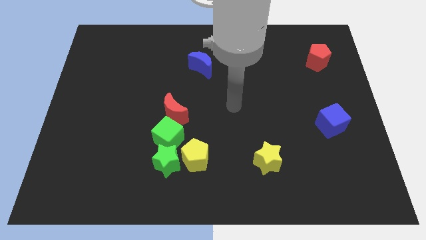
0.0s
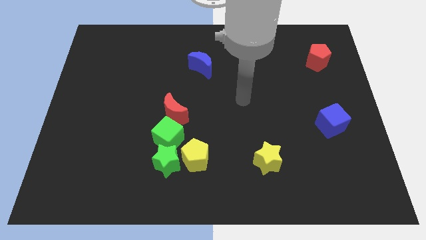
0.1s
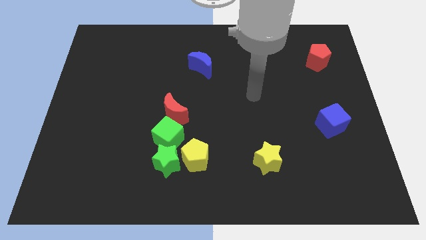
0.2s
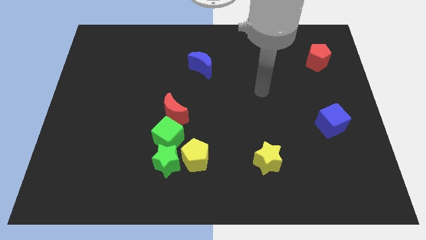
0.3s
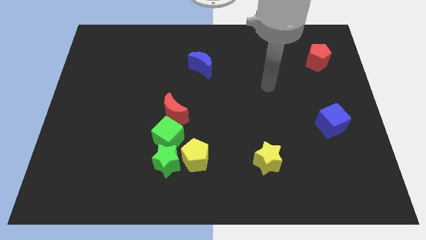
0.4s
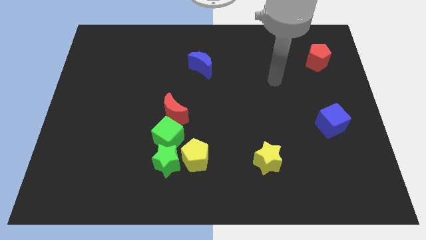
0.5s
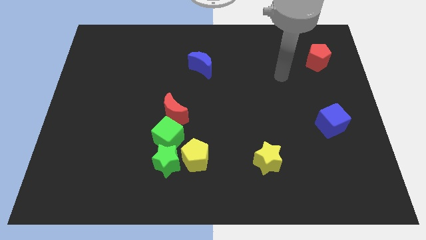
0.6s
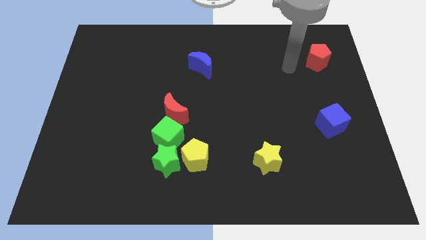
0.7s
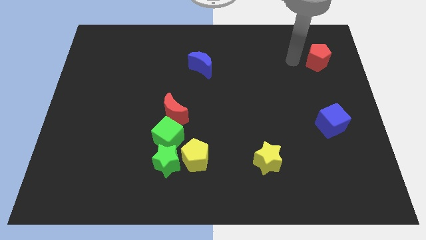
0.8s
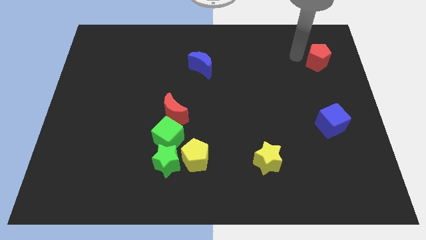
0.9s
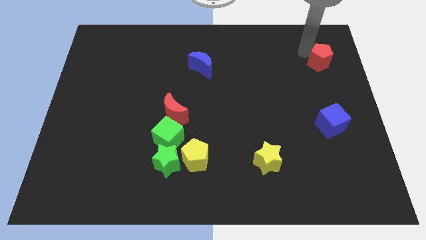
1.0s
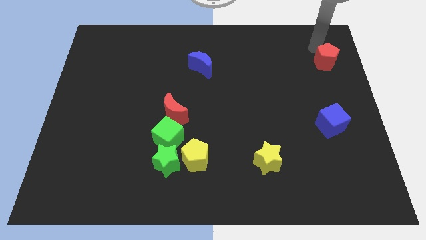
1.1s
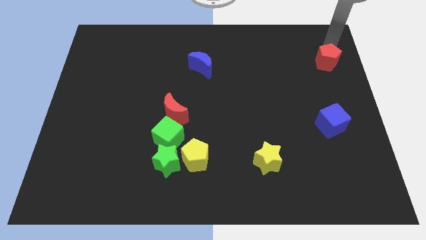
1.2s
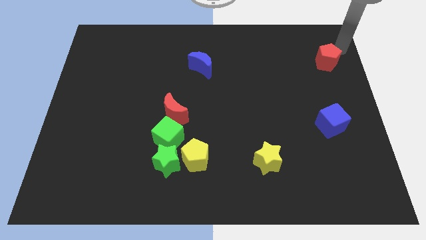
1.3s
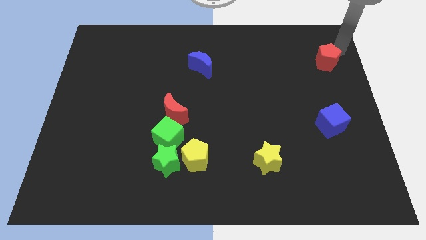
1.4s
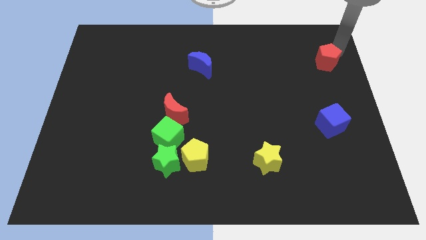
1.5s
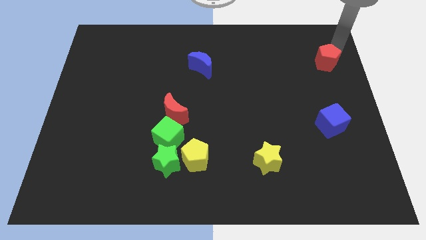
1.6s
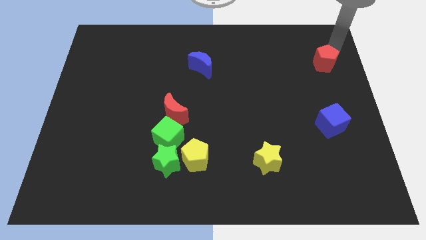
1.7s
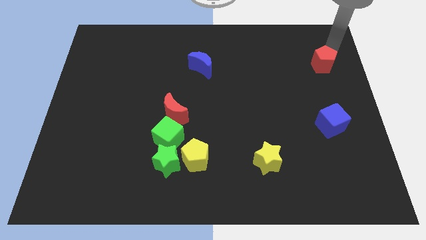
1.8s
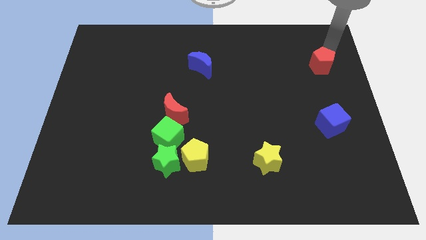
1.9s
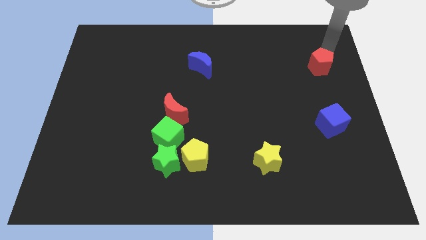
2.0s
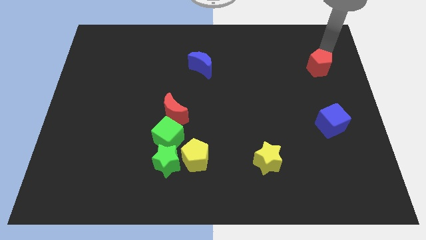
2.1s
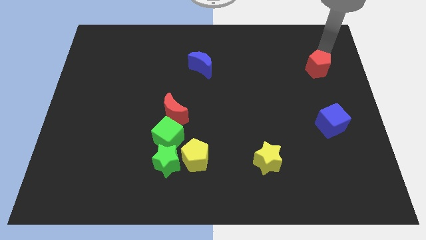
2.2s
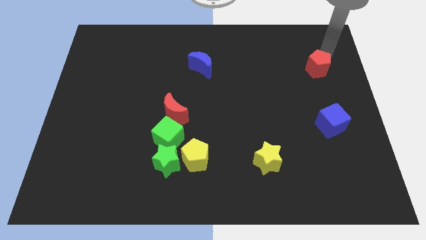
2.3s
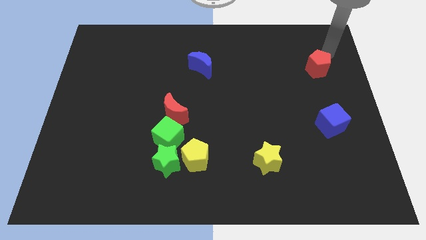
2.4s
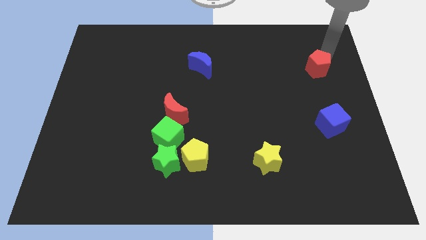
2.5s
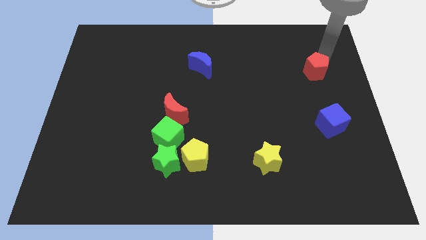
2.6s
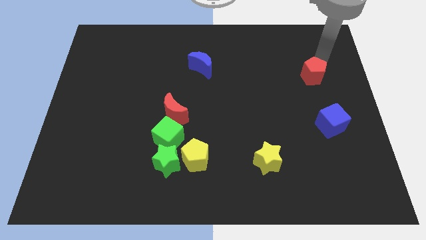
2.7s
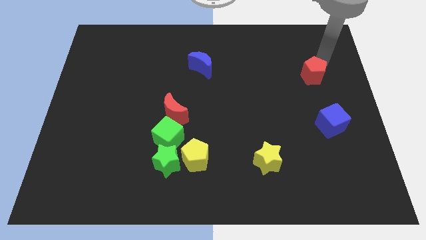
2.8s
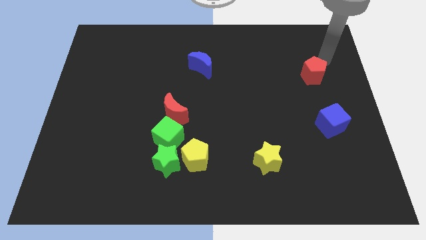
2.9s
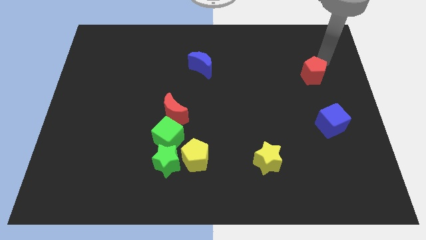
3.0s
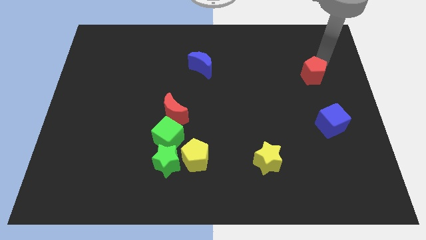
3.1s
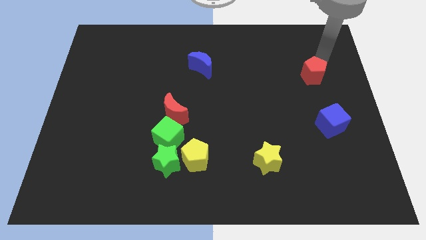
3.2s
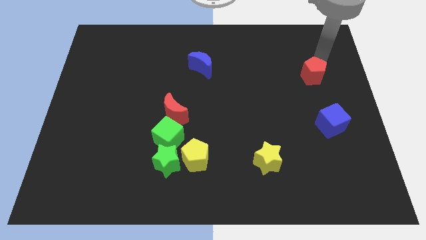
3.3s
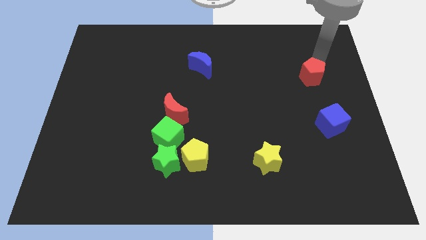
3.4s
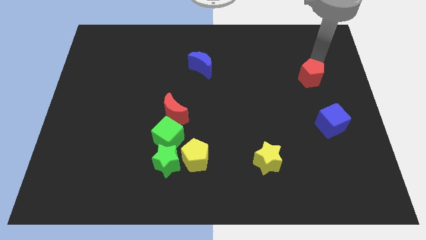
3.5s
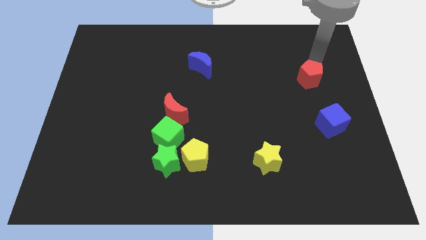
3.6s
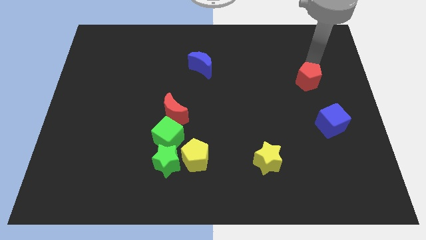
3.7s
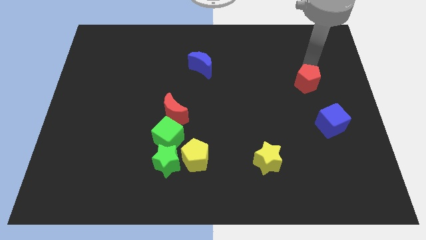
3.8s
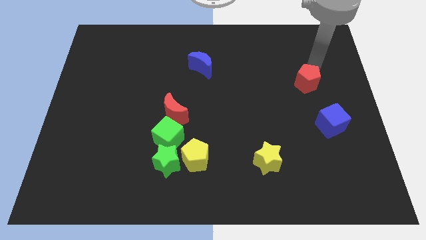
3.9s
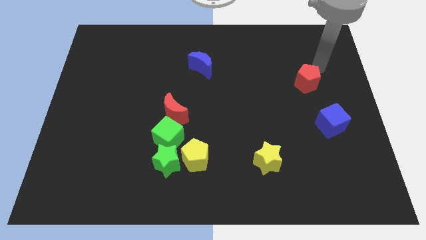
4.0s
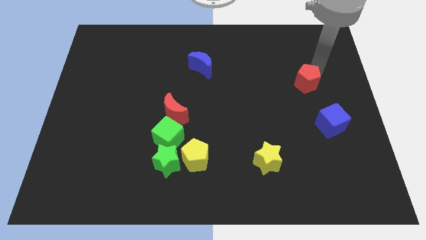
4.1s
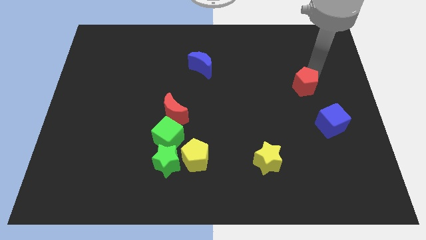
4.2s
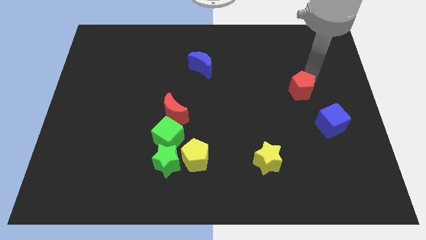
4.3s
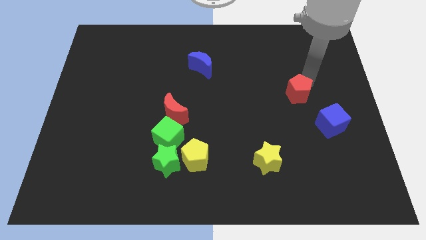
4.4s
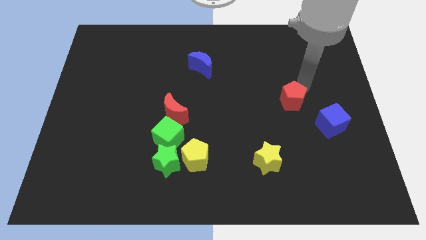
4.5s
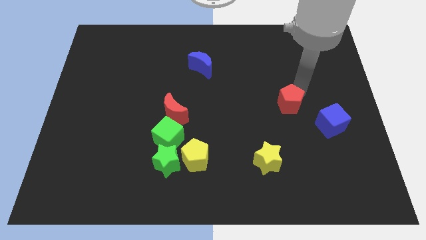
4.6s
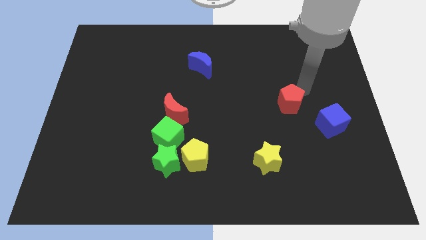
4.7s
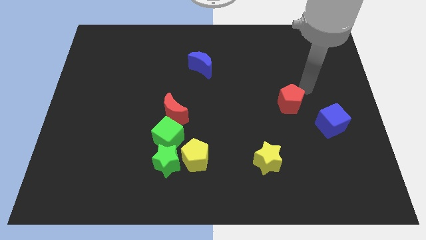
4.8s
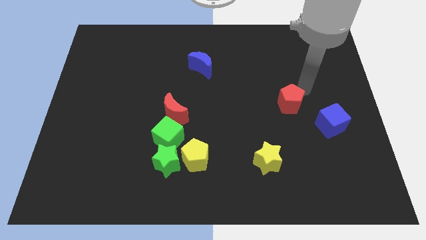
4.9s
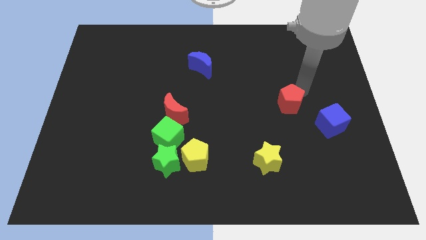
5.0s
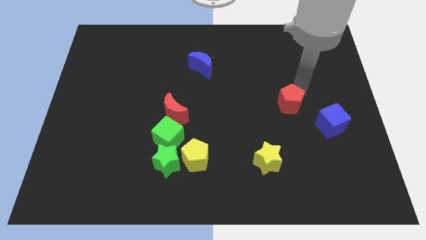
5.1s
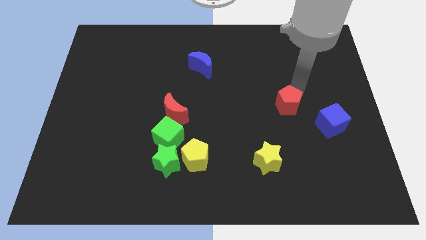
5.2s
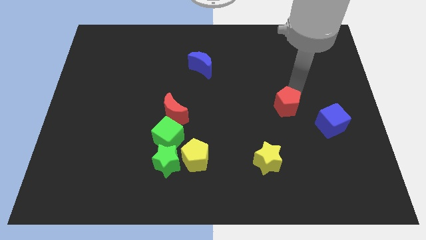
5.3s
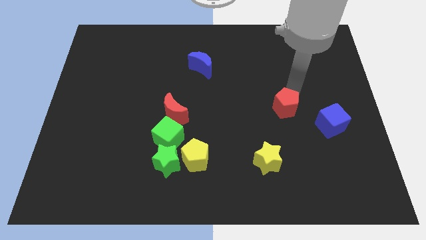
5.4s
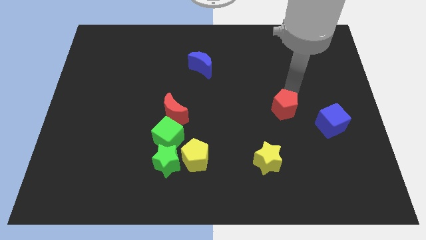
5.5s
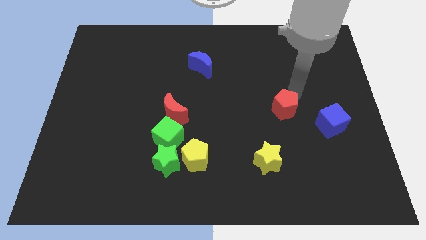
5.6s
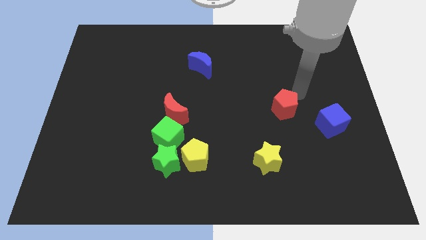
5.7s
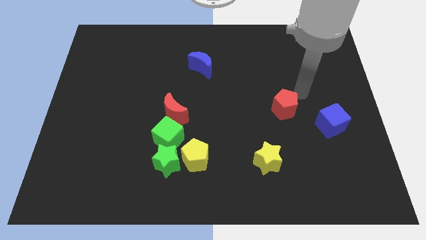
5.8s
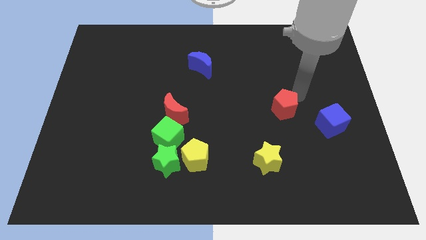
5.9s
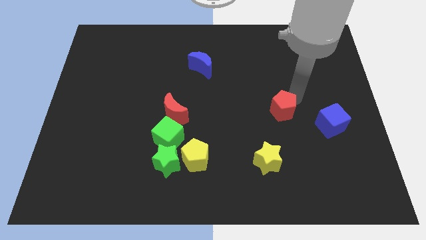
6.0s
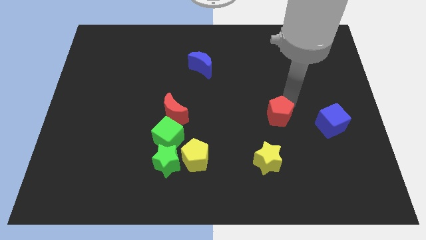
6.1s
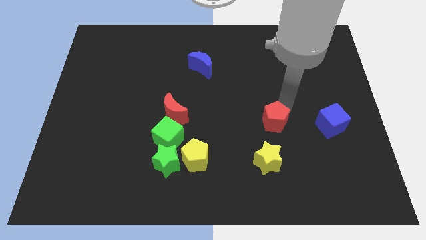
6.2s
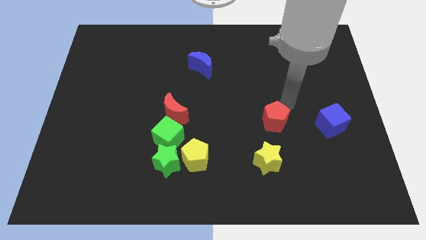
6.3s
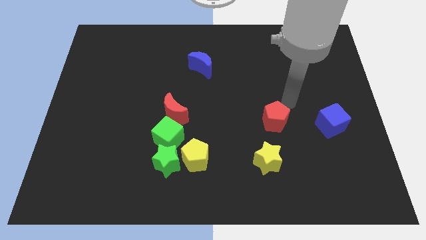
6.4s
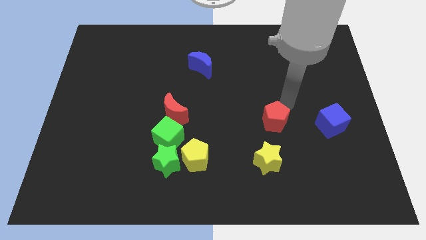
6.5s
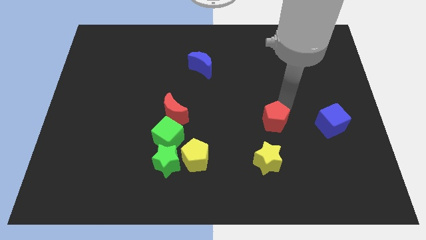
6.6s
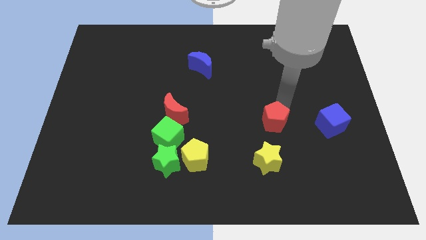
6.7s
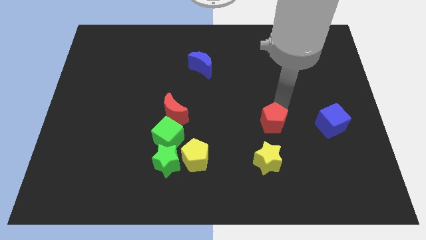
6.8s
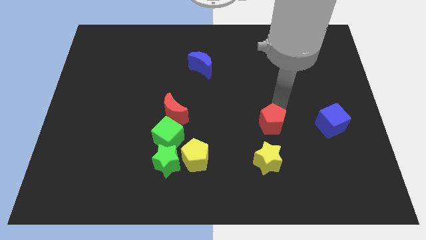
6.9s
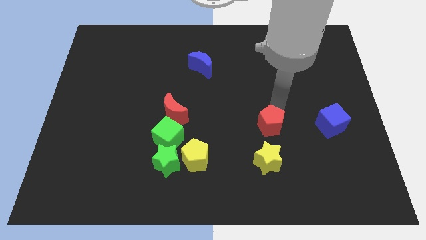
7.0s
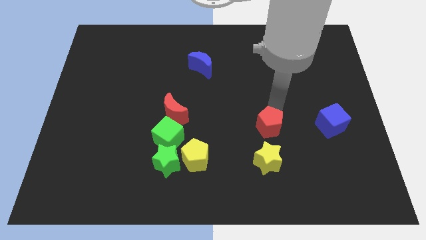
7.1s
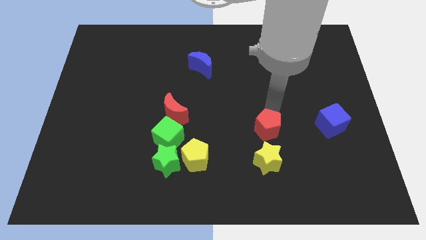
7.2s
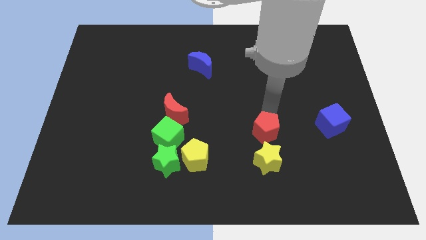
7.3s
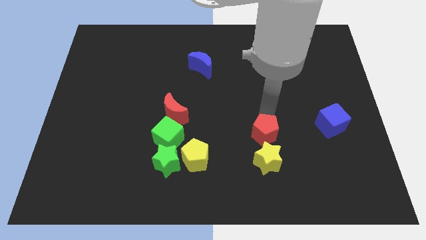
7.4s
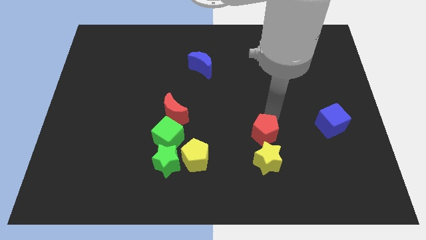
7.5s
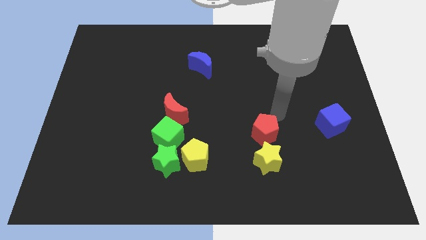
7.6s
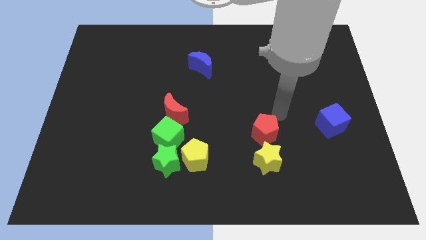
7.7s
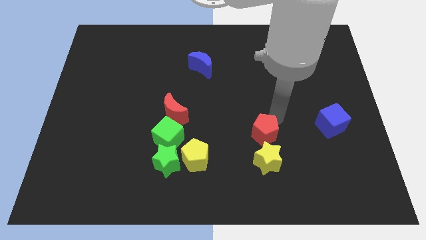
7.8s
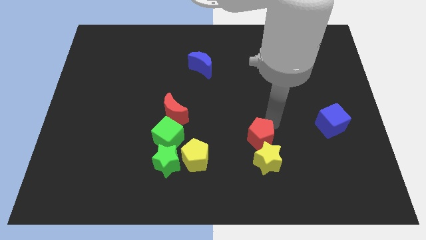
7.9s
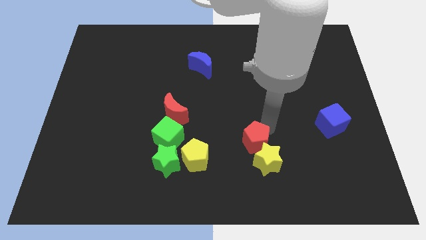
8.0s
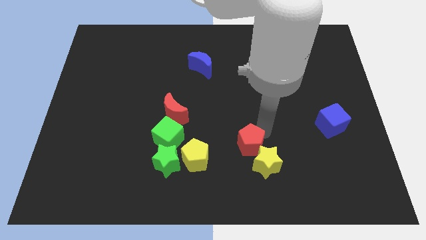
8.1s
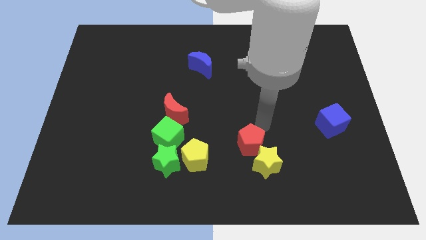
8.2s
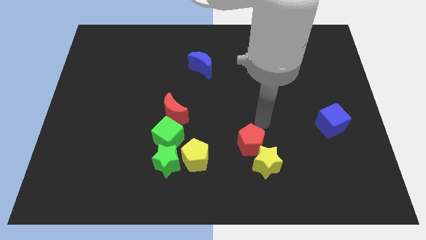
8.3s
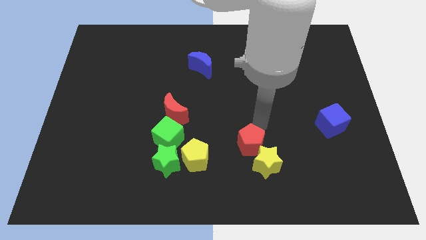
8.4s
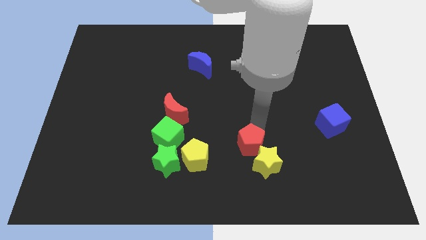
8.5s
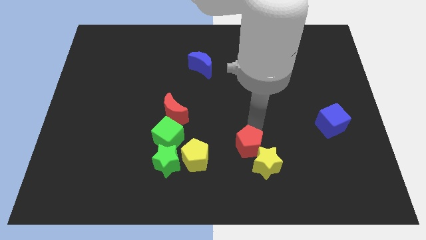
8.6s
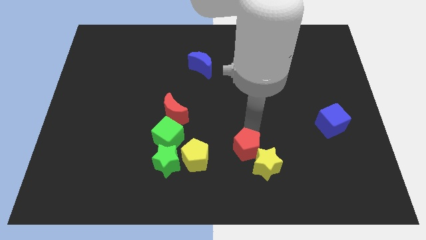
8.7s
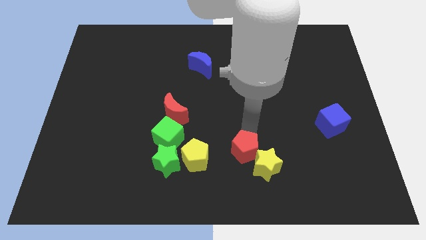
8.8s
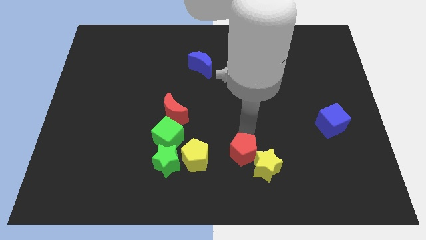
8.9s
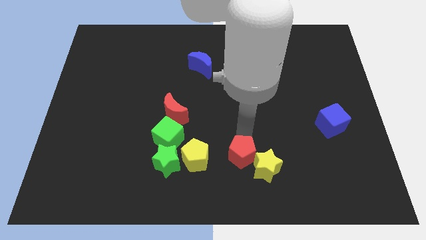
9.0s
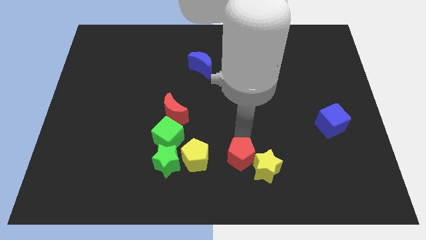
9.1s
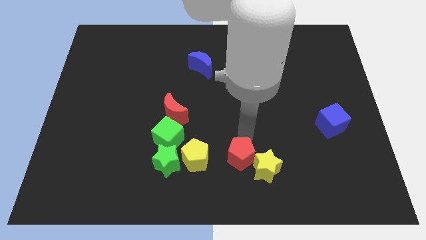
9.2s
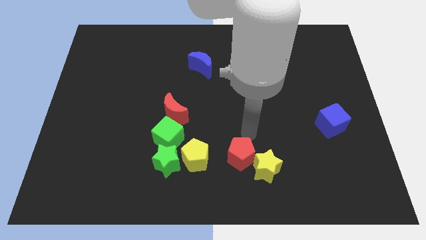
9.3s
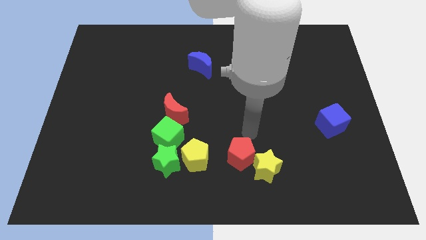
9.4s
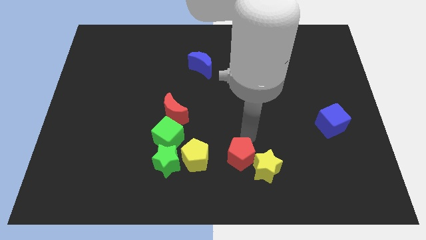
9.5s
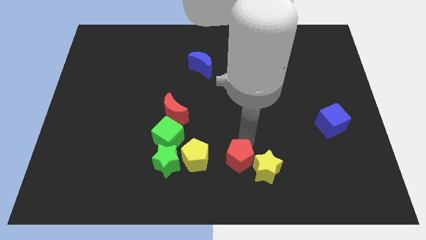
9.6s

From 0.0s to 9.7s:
slide the red pentagon to the bottom
